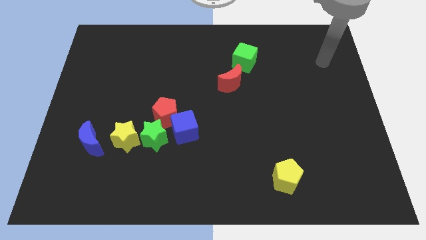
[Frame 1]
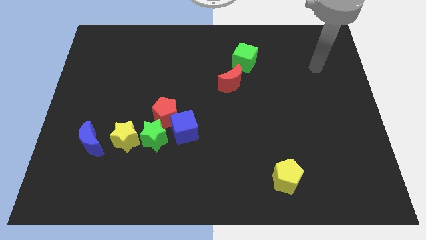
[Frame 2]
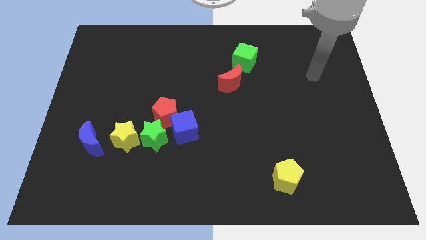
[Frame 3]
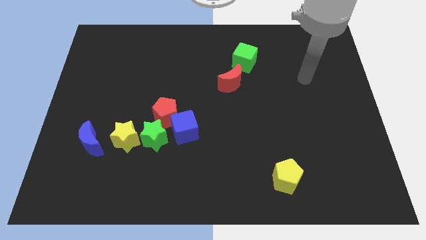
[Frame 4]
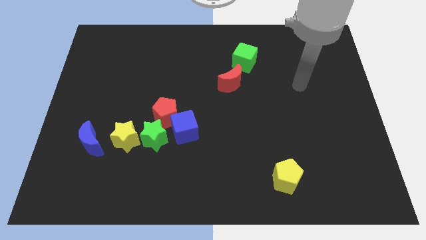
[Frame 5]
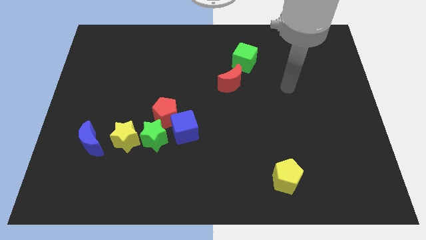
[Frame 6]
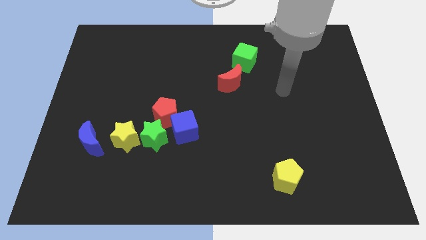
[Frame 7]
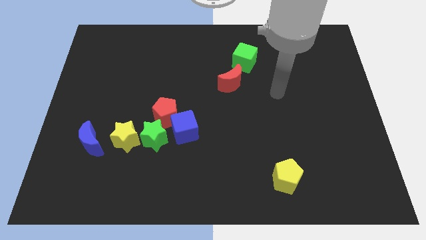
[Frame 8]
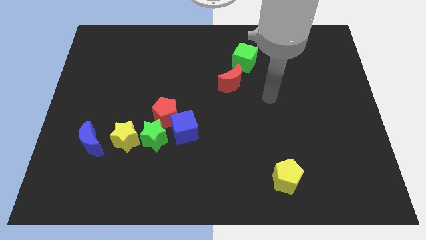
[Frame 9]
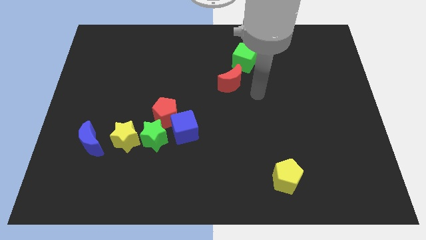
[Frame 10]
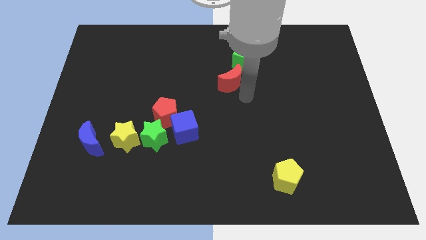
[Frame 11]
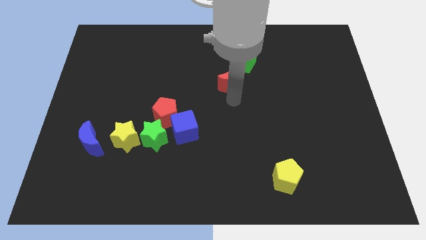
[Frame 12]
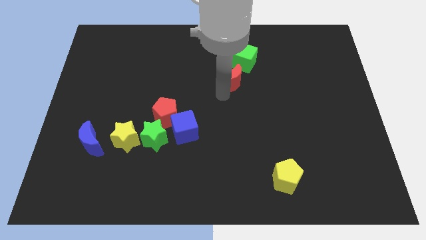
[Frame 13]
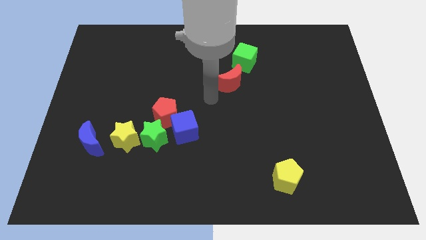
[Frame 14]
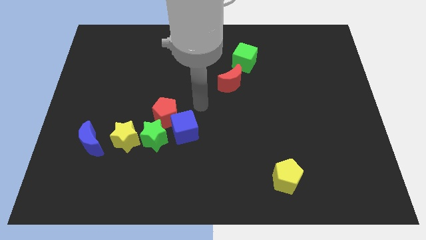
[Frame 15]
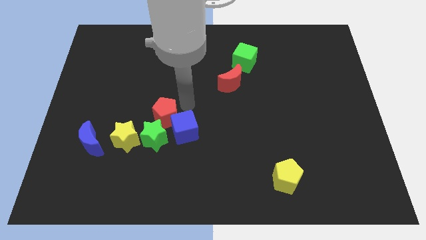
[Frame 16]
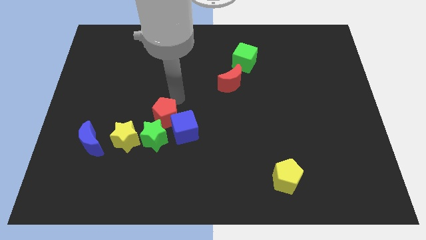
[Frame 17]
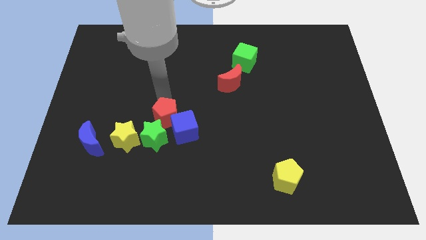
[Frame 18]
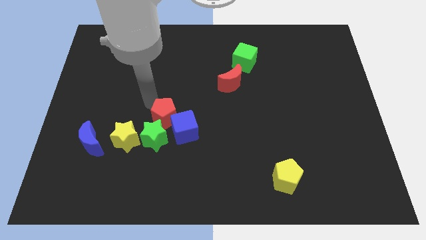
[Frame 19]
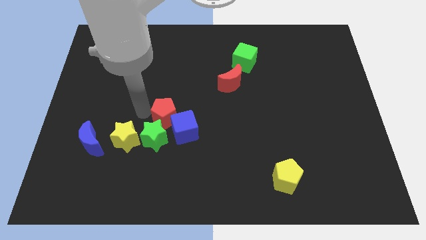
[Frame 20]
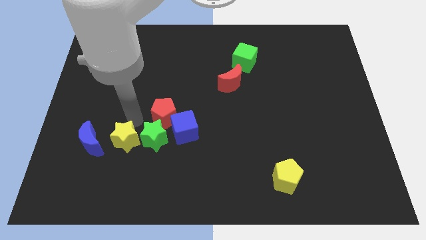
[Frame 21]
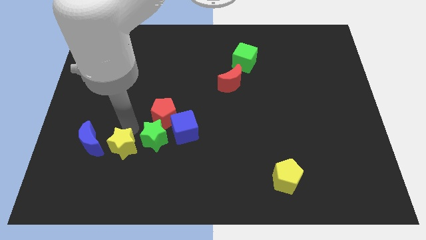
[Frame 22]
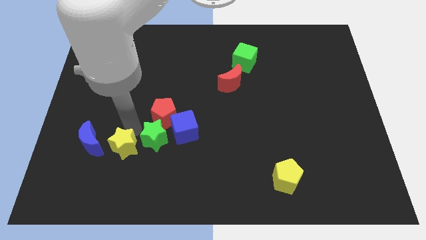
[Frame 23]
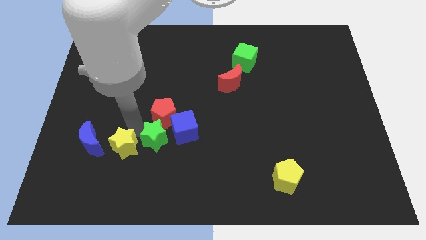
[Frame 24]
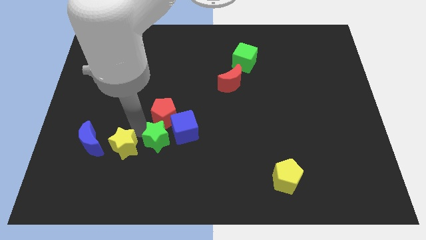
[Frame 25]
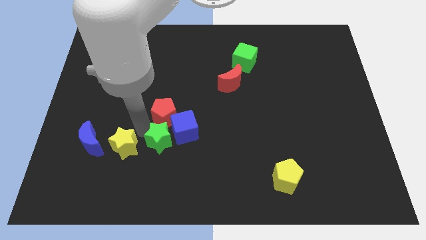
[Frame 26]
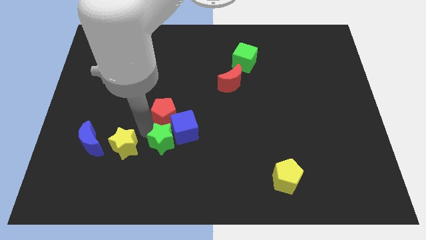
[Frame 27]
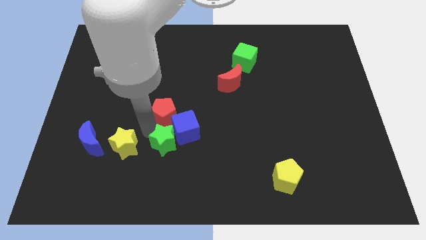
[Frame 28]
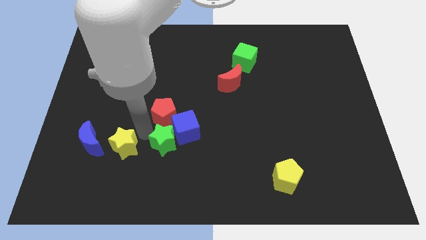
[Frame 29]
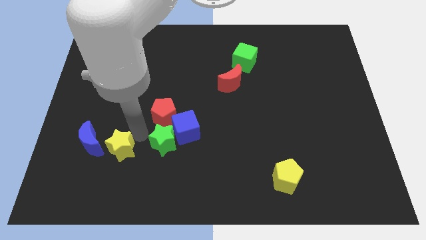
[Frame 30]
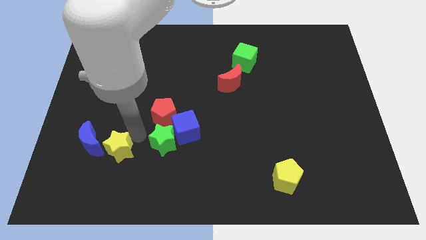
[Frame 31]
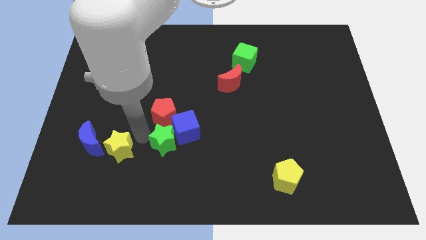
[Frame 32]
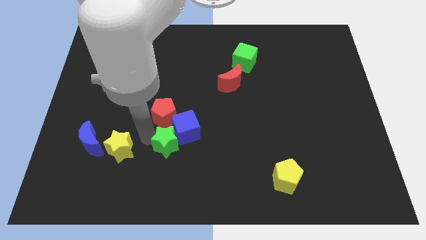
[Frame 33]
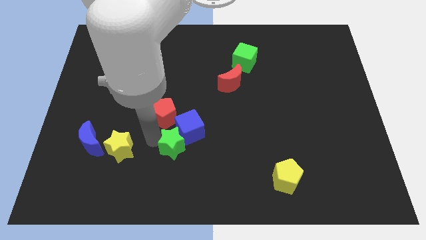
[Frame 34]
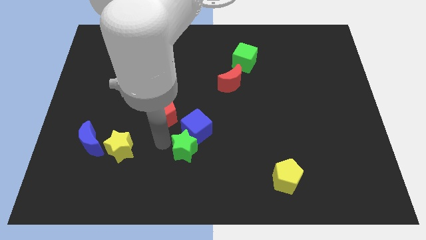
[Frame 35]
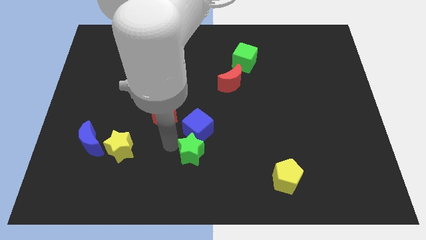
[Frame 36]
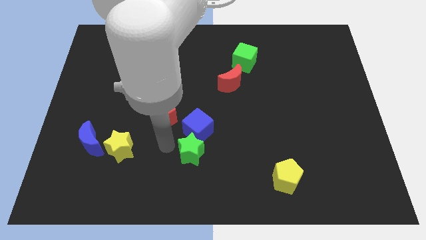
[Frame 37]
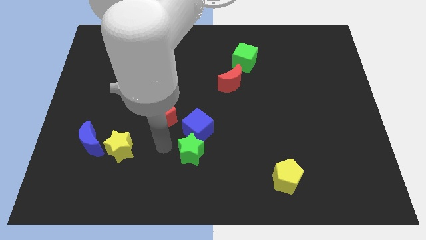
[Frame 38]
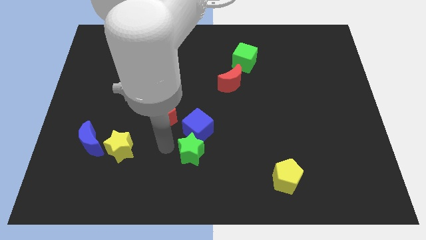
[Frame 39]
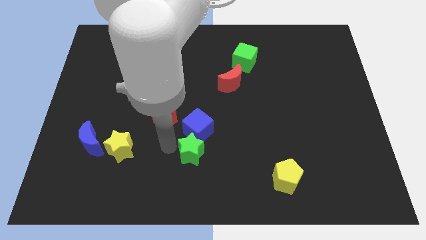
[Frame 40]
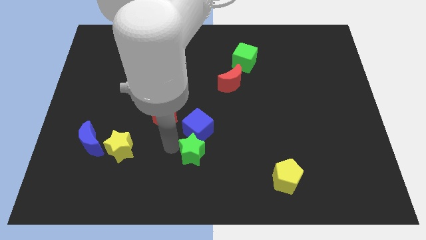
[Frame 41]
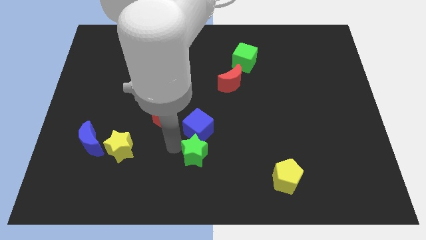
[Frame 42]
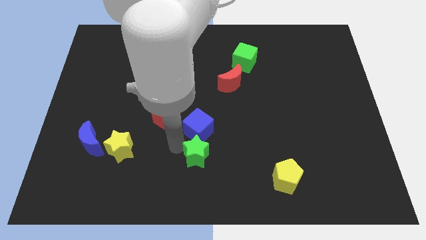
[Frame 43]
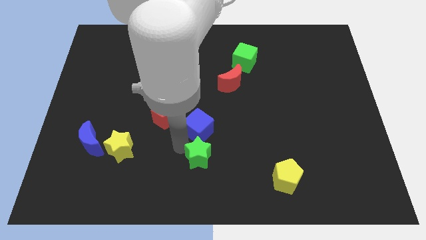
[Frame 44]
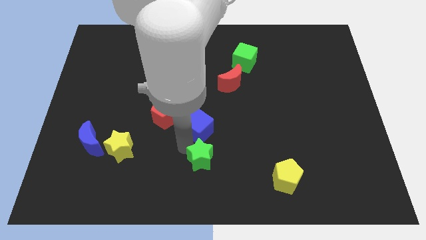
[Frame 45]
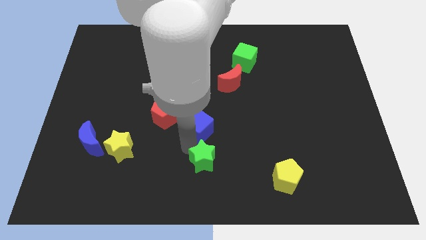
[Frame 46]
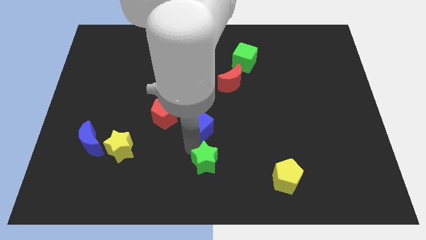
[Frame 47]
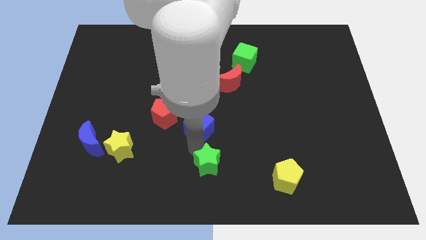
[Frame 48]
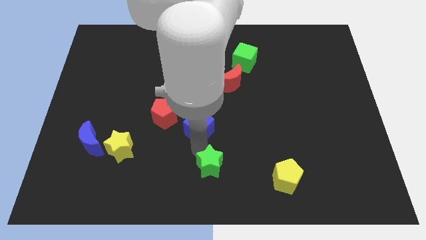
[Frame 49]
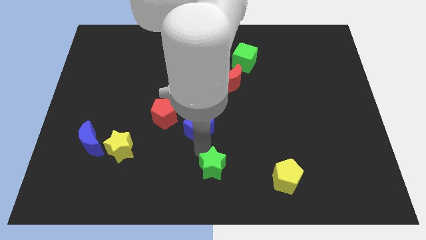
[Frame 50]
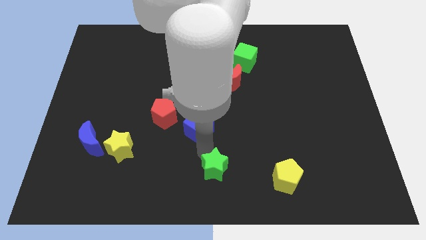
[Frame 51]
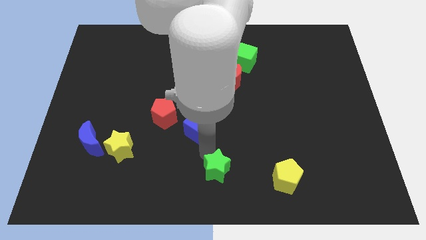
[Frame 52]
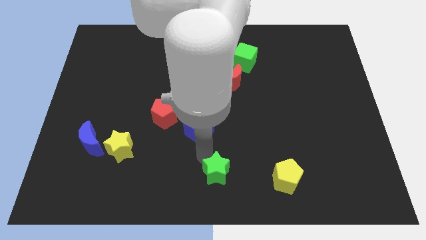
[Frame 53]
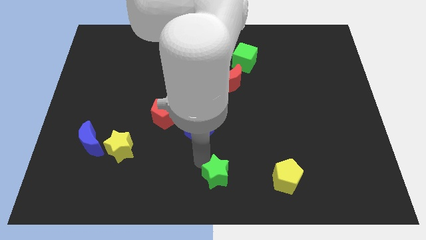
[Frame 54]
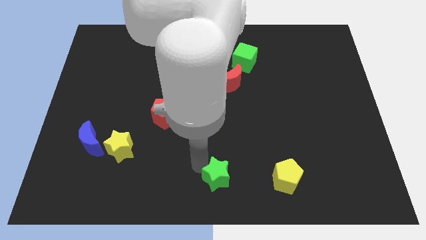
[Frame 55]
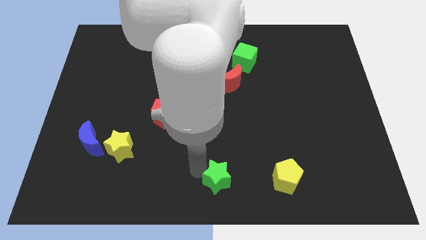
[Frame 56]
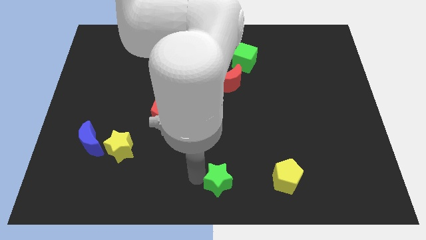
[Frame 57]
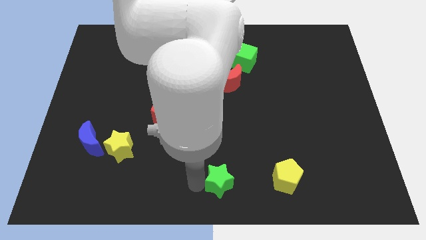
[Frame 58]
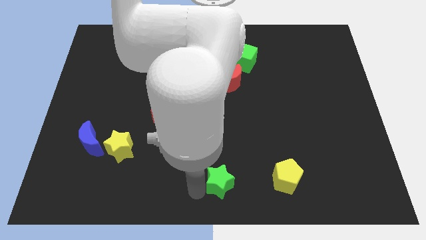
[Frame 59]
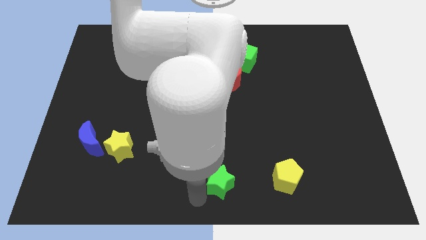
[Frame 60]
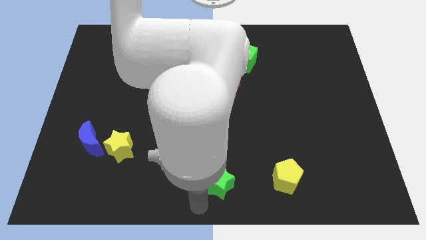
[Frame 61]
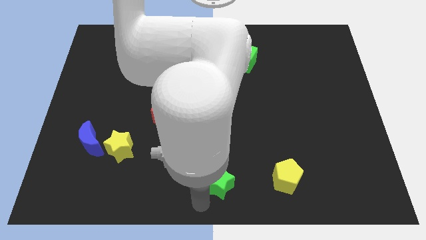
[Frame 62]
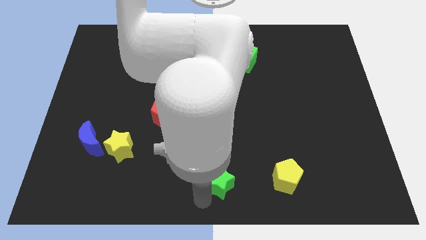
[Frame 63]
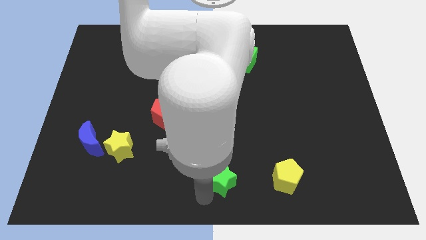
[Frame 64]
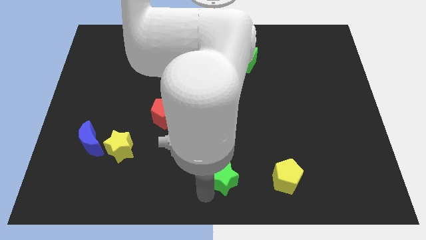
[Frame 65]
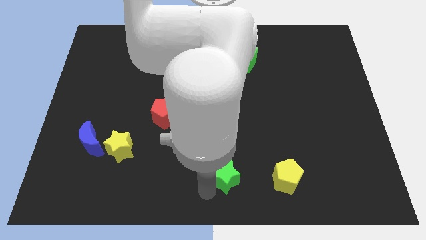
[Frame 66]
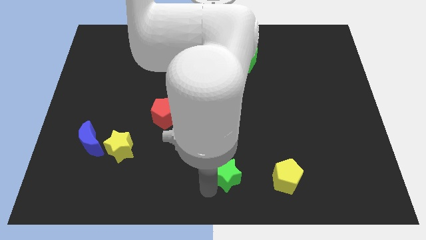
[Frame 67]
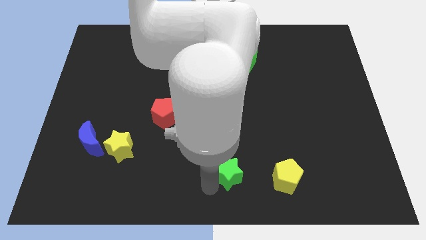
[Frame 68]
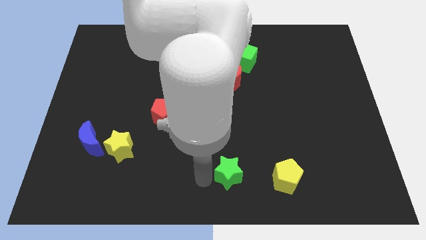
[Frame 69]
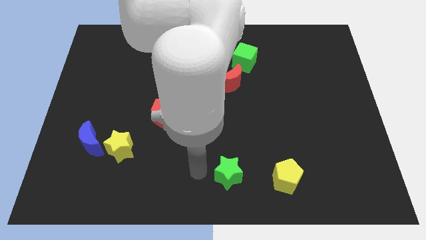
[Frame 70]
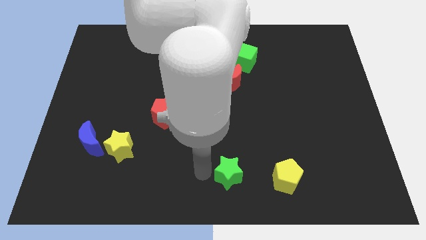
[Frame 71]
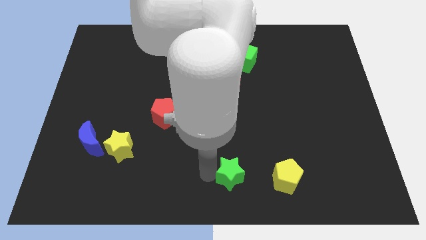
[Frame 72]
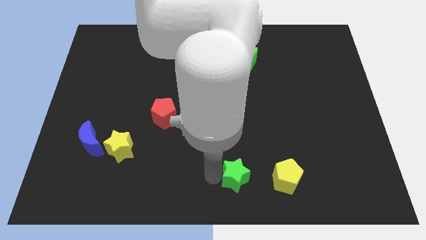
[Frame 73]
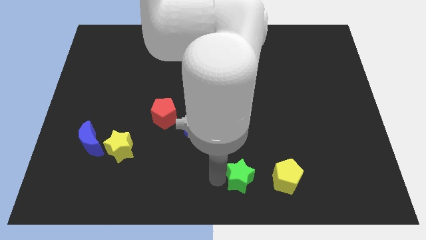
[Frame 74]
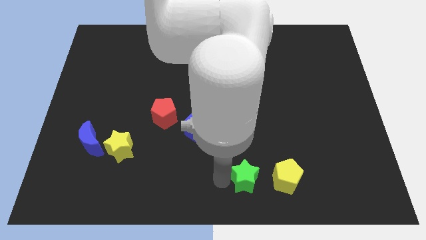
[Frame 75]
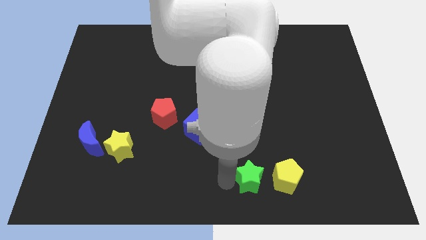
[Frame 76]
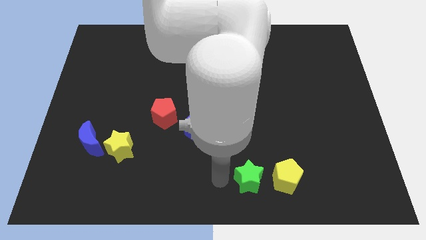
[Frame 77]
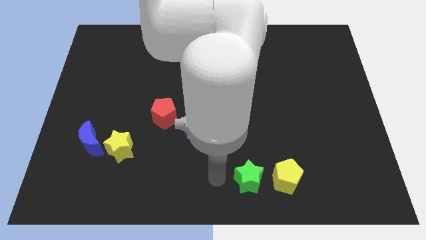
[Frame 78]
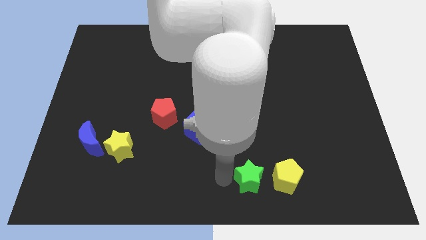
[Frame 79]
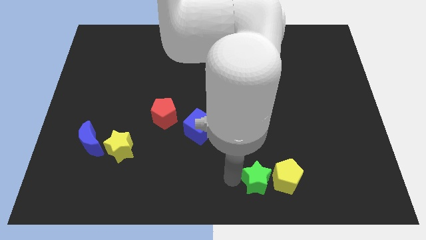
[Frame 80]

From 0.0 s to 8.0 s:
move the green star towards the yellow pentagon
